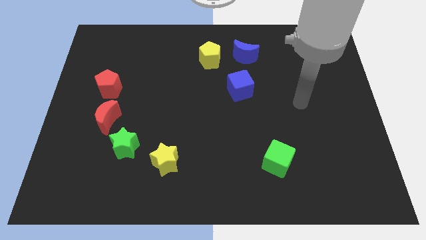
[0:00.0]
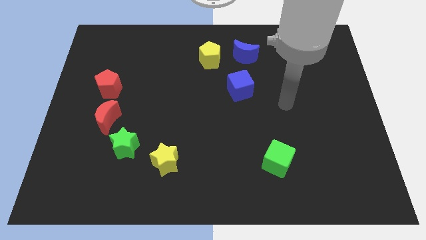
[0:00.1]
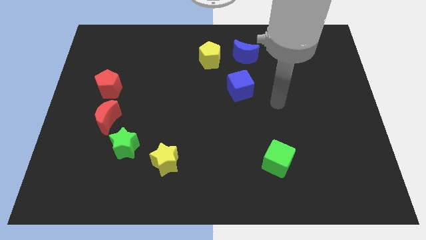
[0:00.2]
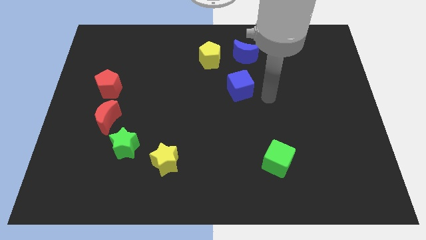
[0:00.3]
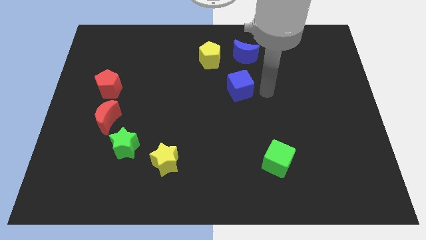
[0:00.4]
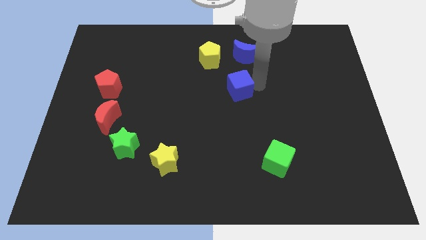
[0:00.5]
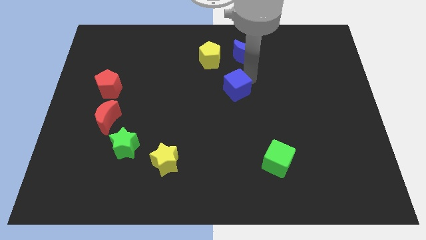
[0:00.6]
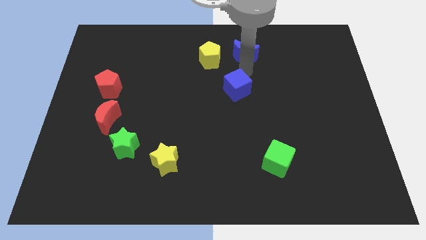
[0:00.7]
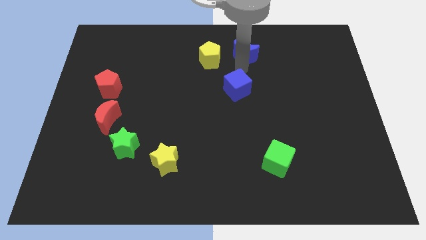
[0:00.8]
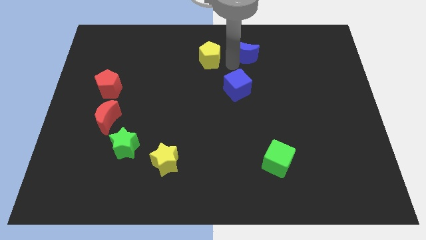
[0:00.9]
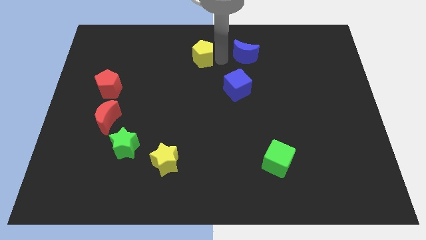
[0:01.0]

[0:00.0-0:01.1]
separate the blue moon from the yellow pentagon

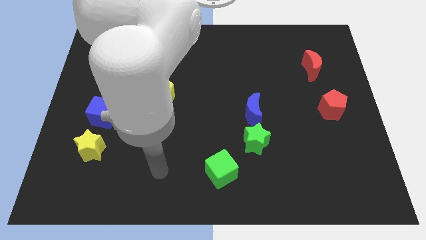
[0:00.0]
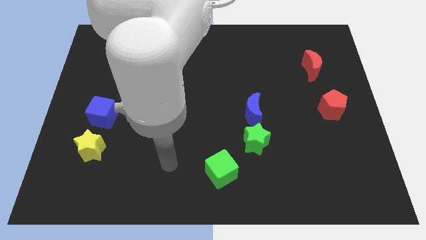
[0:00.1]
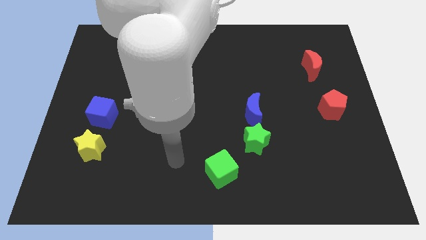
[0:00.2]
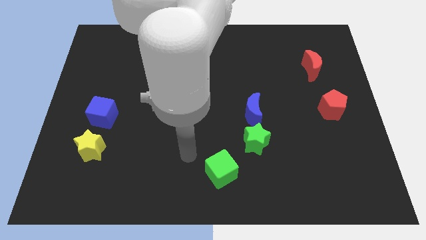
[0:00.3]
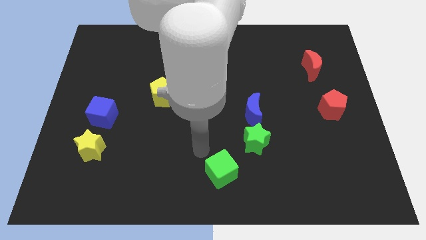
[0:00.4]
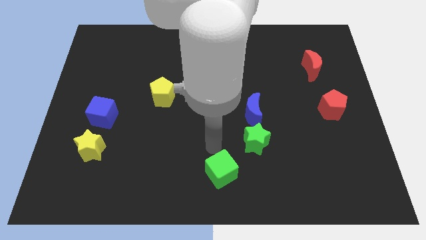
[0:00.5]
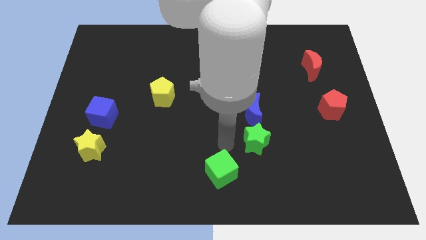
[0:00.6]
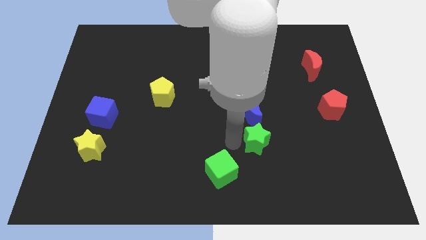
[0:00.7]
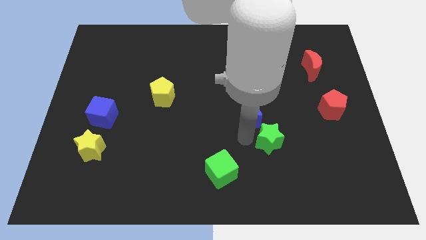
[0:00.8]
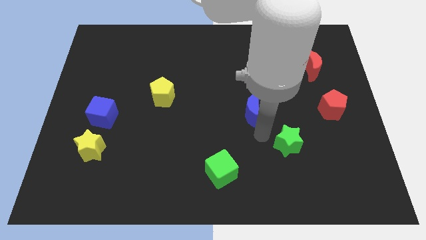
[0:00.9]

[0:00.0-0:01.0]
separate the blue moon from the green star

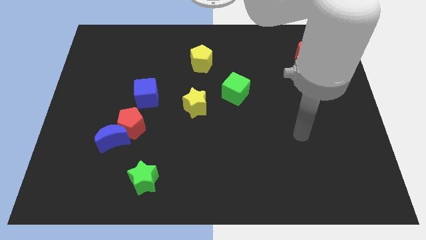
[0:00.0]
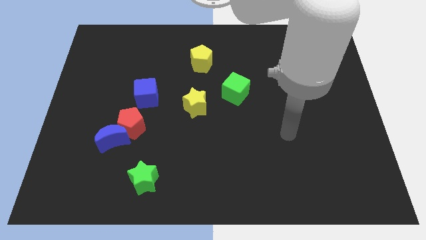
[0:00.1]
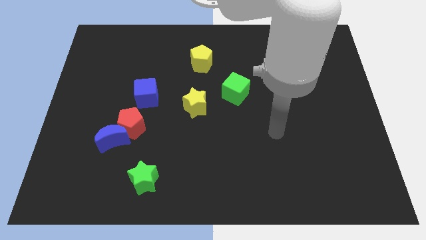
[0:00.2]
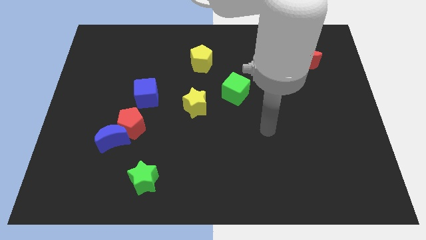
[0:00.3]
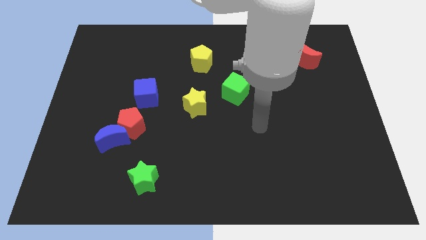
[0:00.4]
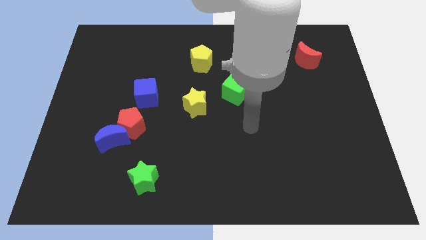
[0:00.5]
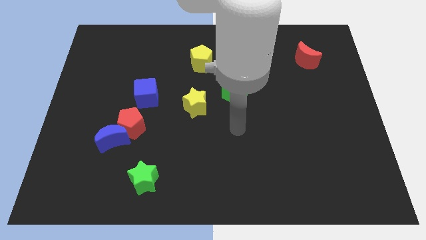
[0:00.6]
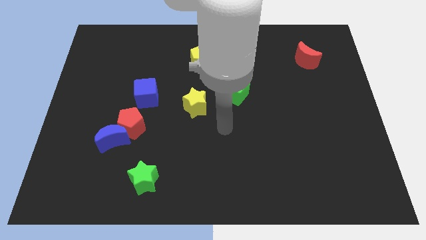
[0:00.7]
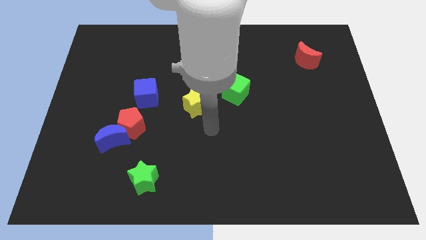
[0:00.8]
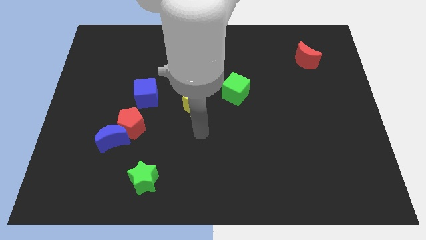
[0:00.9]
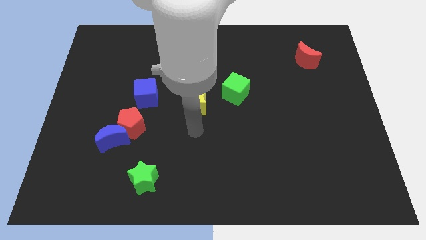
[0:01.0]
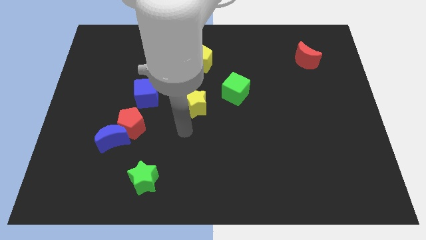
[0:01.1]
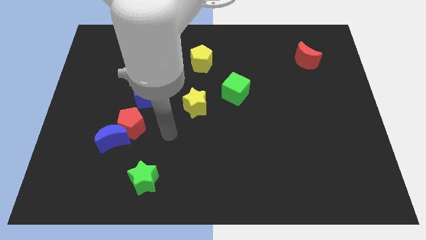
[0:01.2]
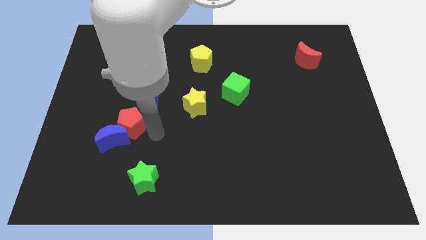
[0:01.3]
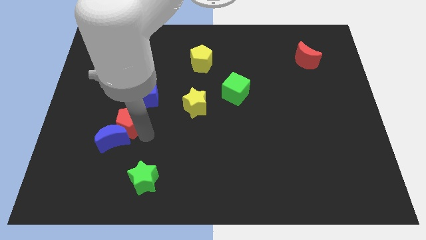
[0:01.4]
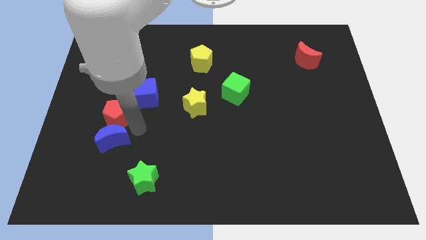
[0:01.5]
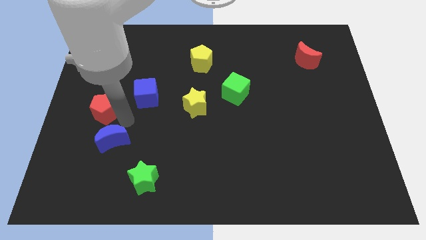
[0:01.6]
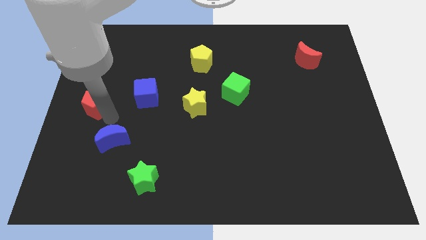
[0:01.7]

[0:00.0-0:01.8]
pull the blue moon apart from the red pentagon

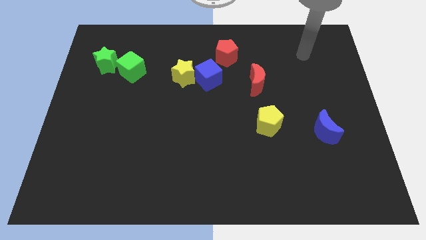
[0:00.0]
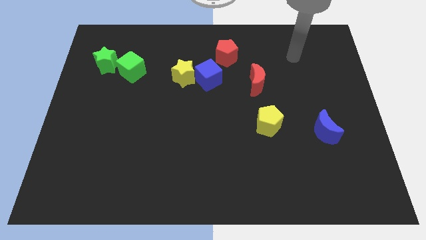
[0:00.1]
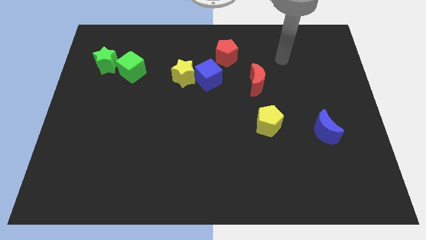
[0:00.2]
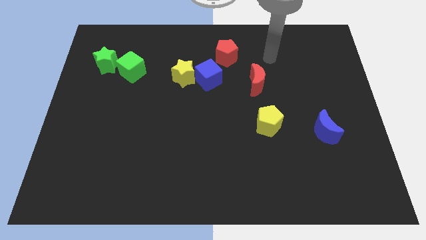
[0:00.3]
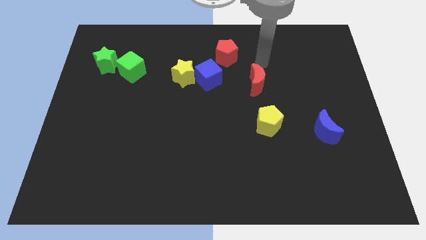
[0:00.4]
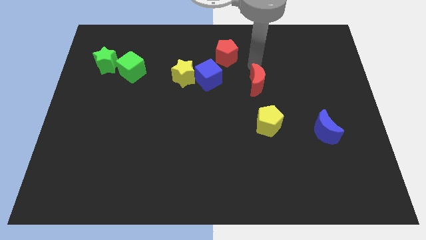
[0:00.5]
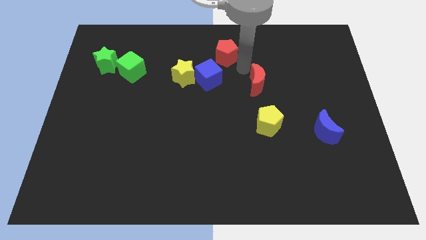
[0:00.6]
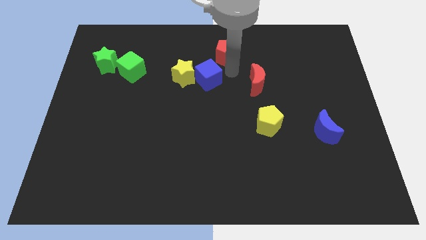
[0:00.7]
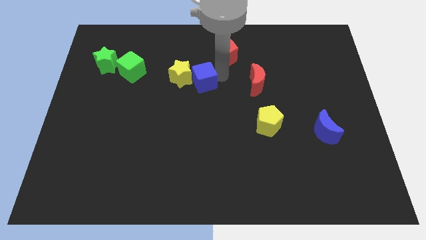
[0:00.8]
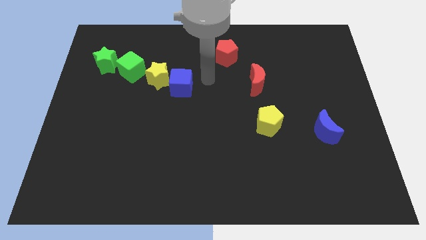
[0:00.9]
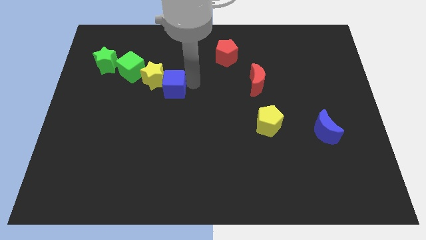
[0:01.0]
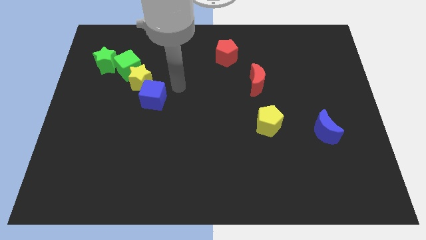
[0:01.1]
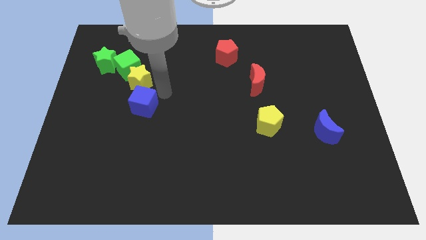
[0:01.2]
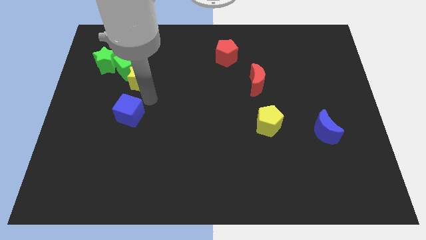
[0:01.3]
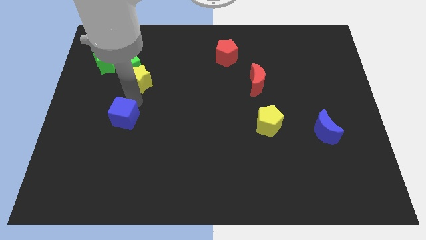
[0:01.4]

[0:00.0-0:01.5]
separate the yellow star from the blue cube

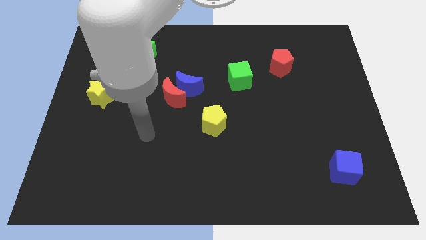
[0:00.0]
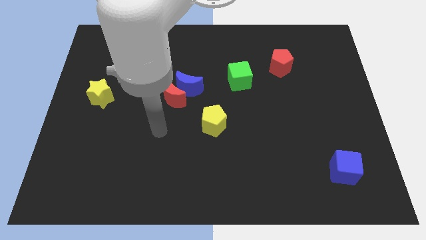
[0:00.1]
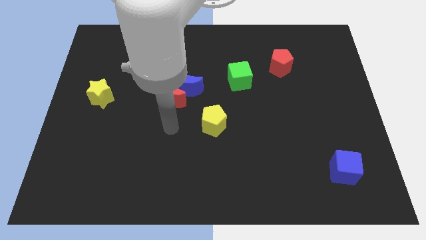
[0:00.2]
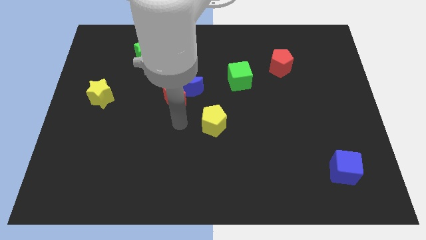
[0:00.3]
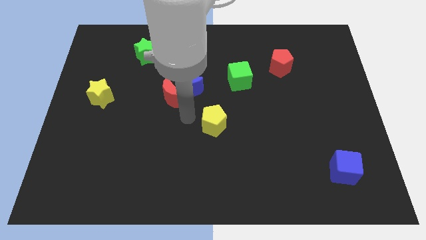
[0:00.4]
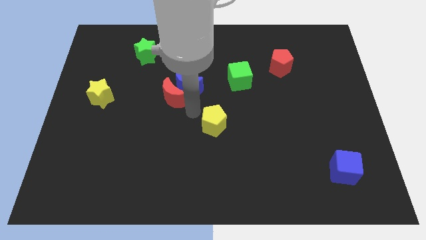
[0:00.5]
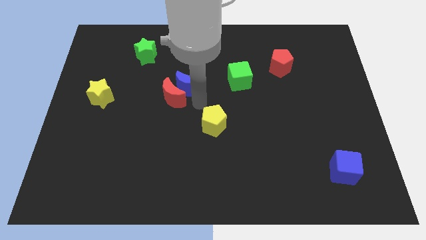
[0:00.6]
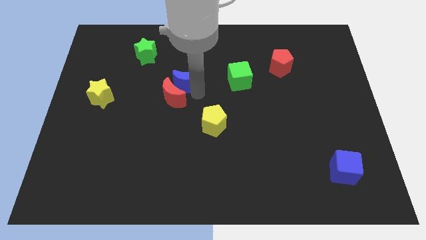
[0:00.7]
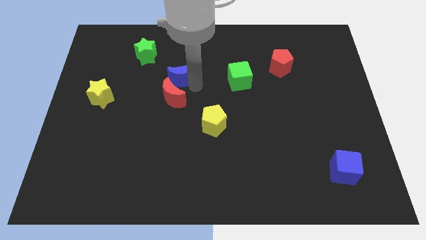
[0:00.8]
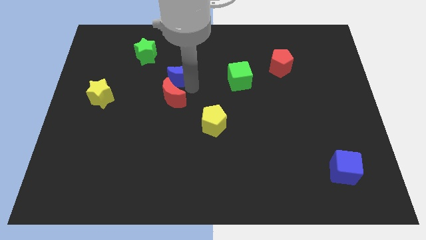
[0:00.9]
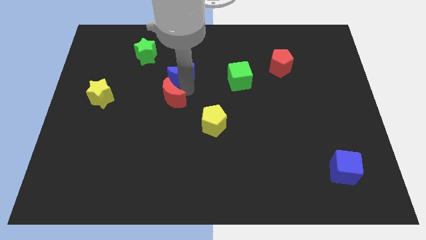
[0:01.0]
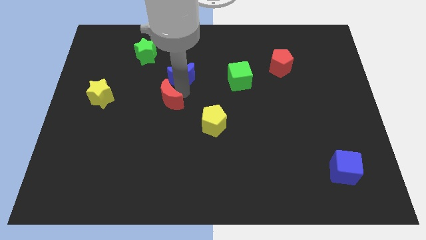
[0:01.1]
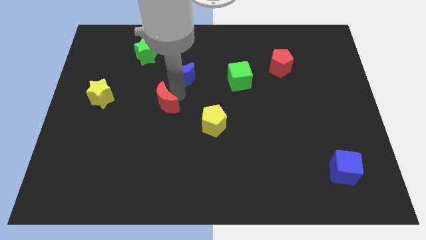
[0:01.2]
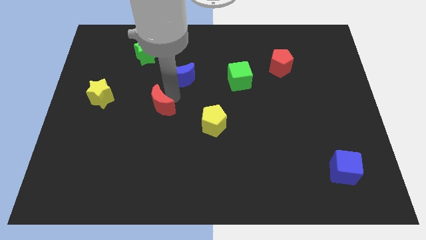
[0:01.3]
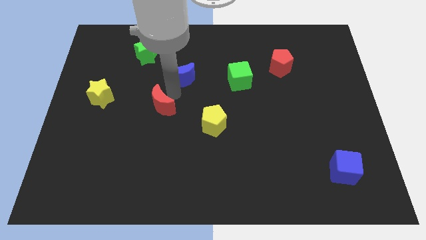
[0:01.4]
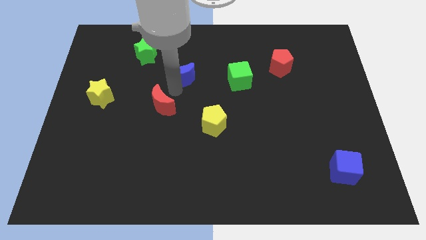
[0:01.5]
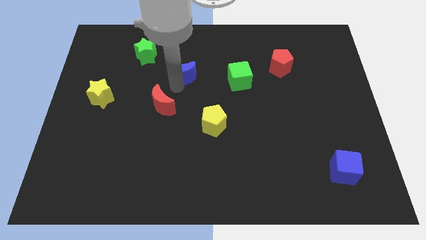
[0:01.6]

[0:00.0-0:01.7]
move the red moon away from the blue moon

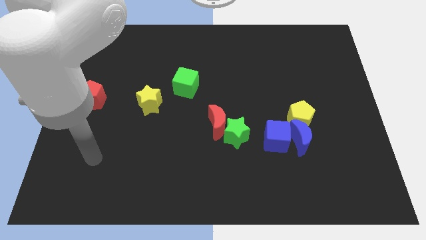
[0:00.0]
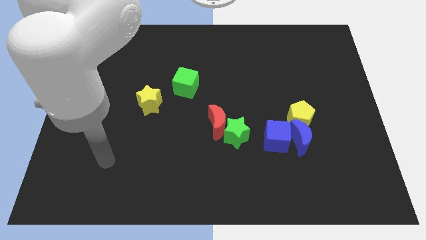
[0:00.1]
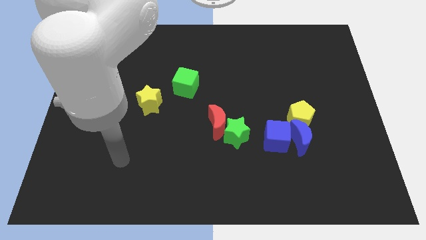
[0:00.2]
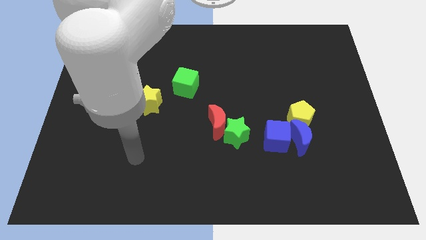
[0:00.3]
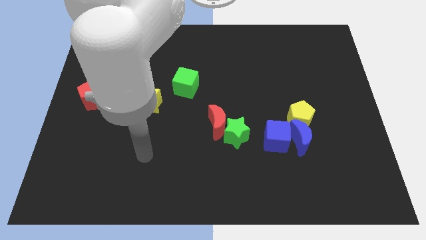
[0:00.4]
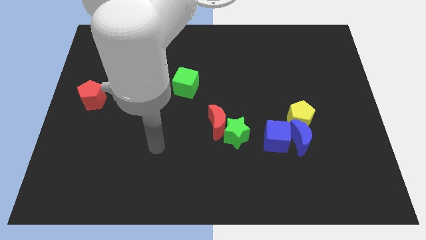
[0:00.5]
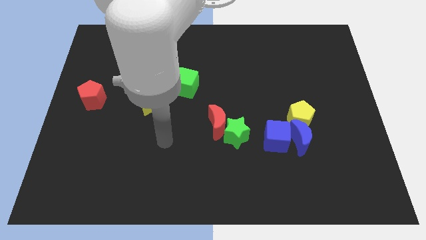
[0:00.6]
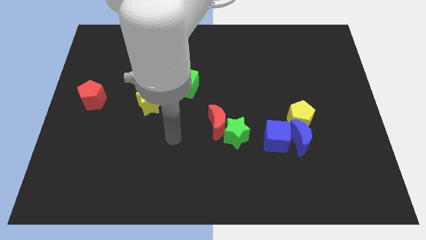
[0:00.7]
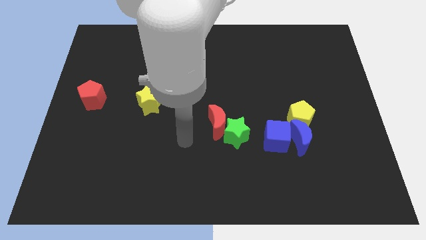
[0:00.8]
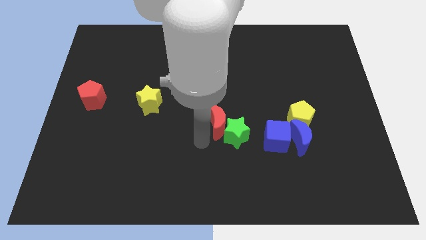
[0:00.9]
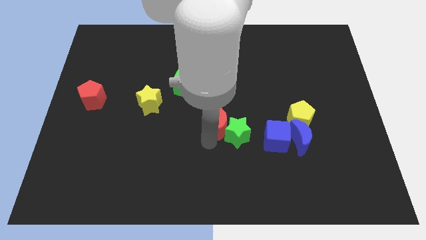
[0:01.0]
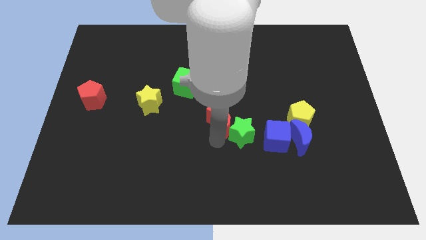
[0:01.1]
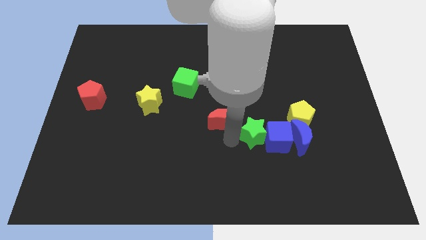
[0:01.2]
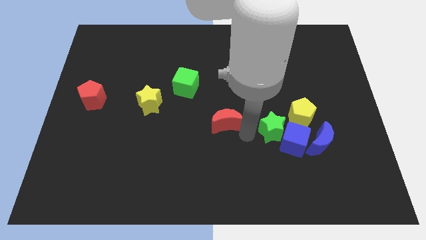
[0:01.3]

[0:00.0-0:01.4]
pull the red moon apart from the green star

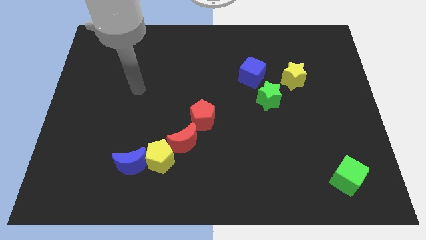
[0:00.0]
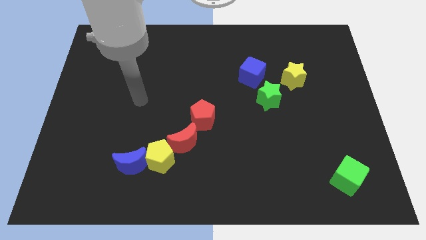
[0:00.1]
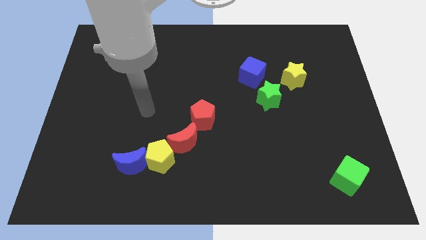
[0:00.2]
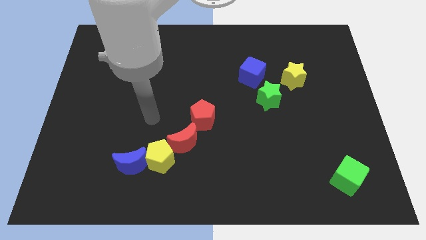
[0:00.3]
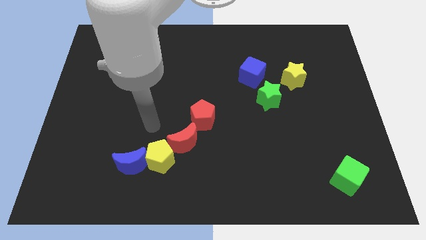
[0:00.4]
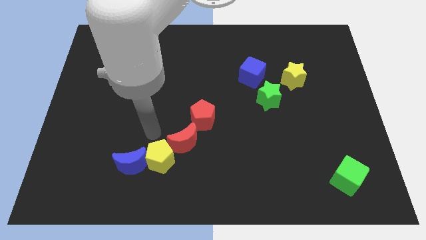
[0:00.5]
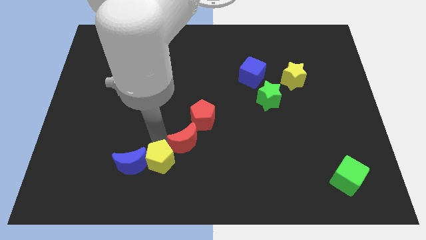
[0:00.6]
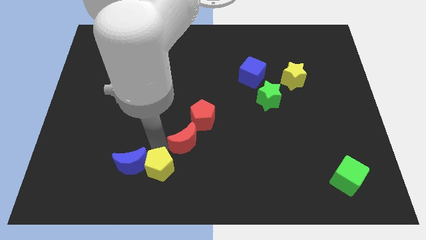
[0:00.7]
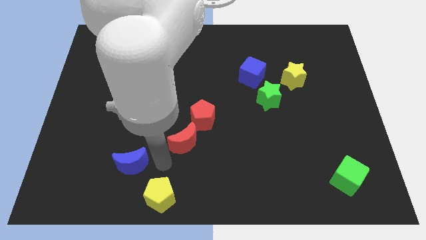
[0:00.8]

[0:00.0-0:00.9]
move the blue moon away from the yellow pentagon
